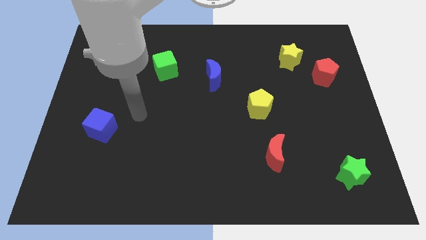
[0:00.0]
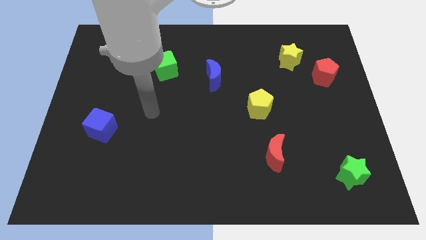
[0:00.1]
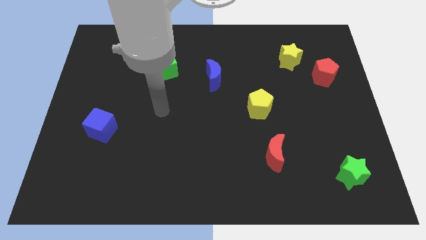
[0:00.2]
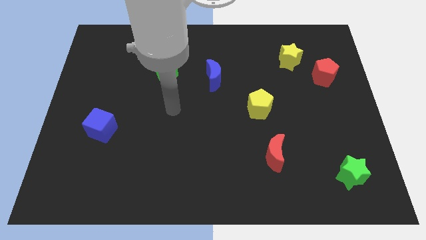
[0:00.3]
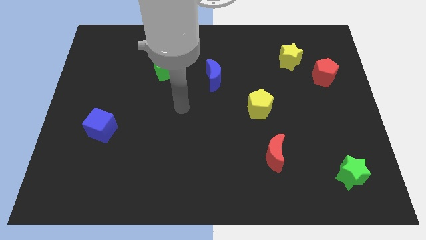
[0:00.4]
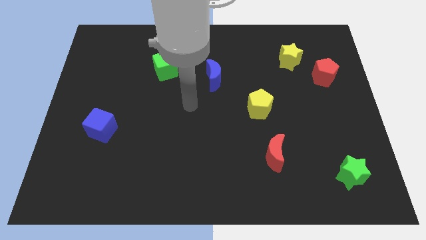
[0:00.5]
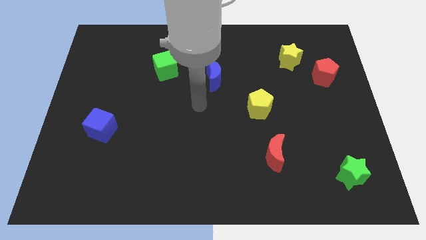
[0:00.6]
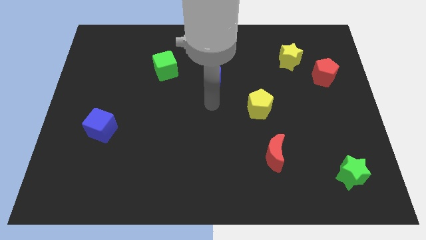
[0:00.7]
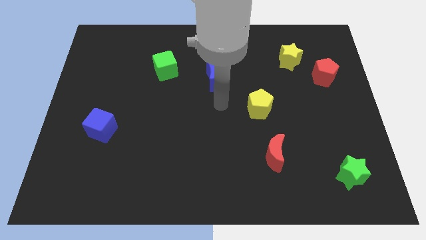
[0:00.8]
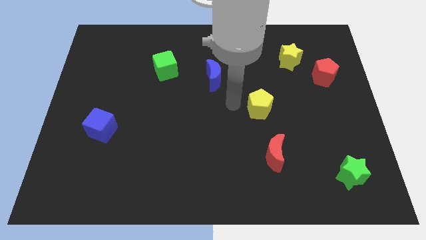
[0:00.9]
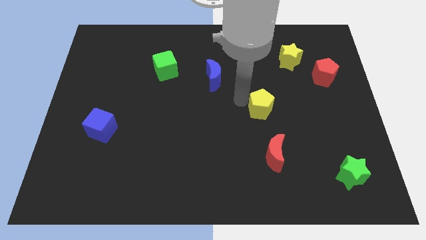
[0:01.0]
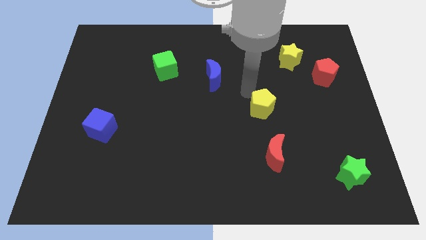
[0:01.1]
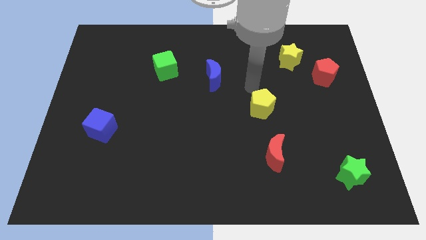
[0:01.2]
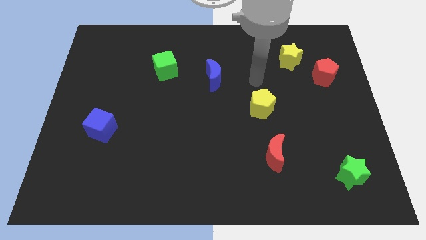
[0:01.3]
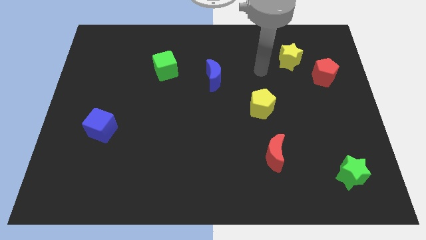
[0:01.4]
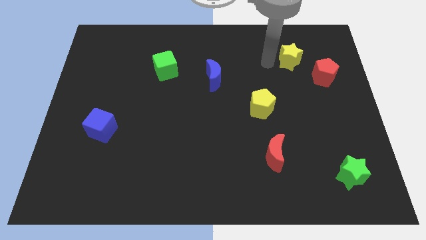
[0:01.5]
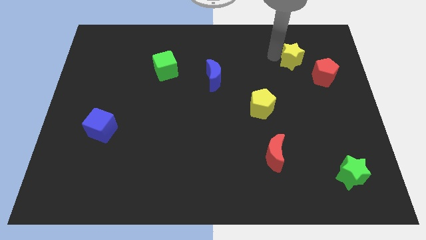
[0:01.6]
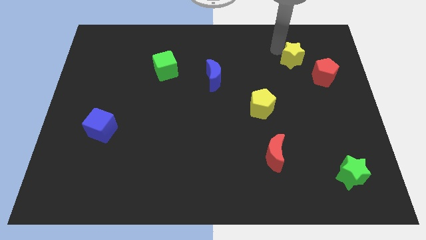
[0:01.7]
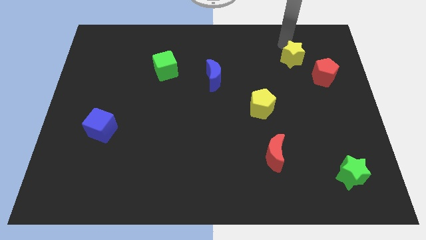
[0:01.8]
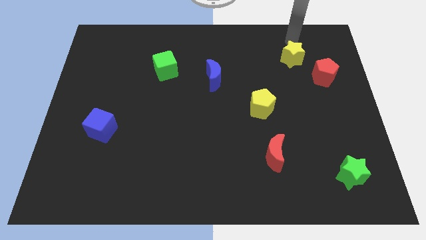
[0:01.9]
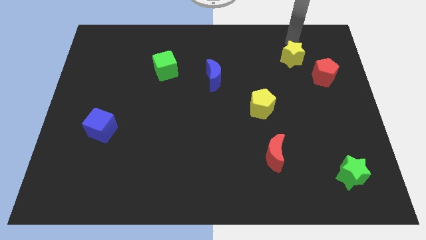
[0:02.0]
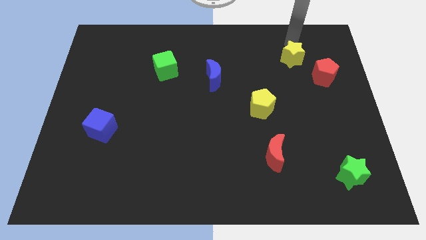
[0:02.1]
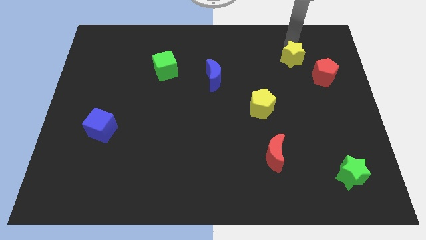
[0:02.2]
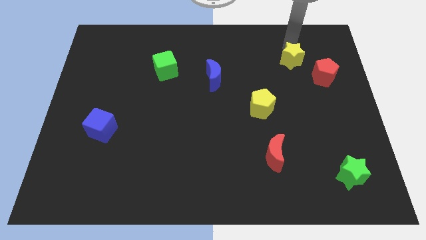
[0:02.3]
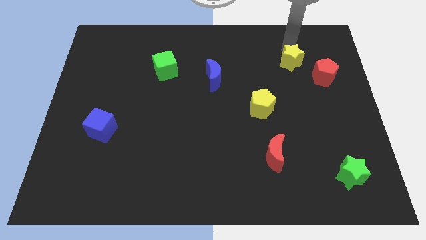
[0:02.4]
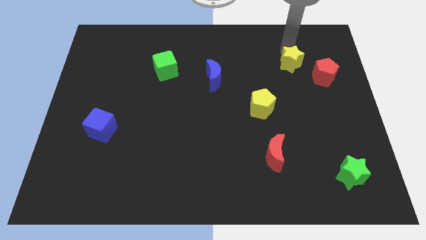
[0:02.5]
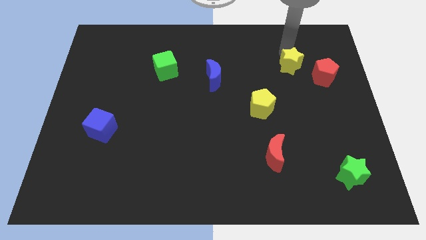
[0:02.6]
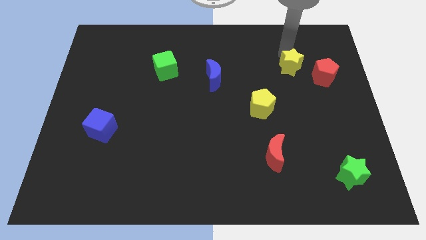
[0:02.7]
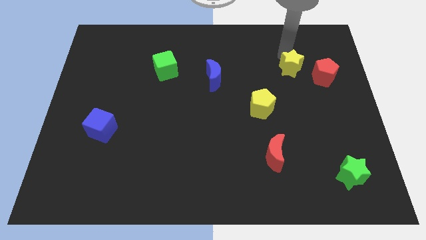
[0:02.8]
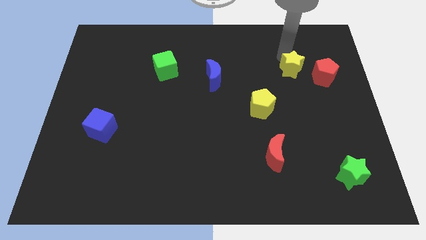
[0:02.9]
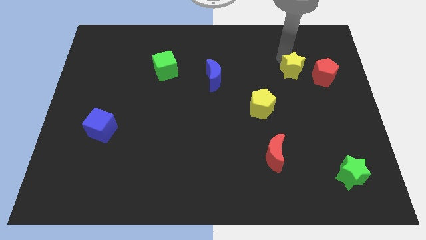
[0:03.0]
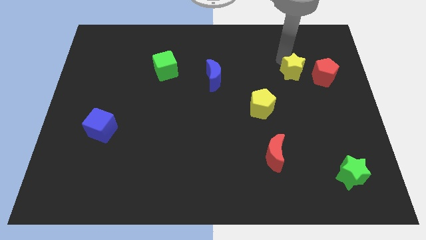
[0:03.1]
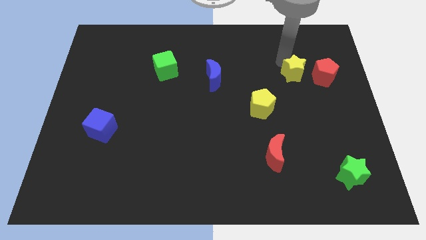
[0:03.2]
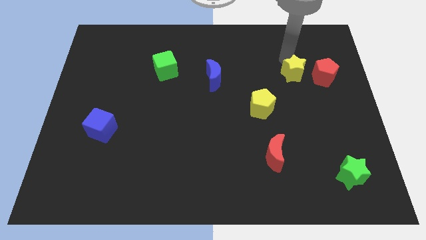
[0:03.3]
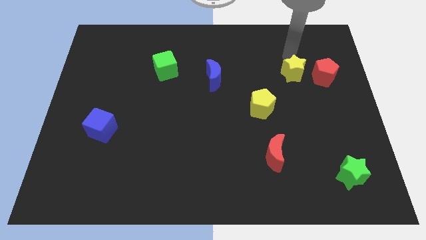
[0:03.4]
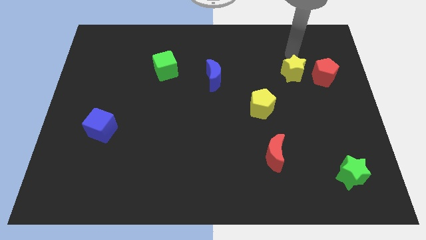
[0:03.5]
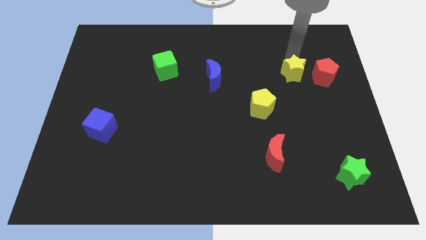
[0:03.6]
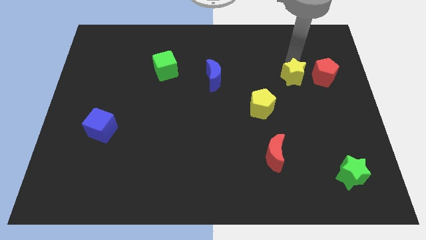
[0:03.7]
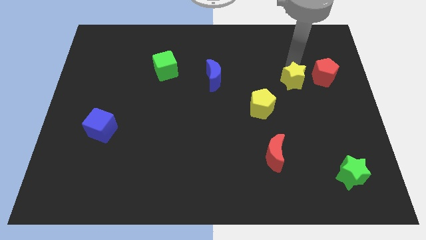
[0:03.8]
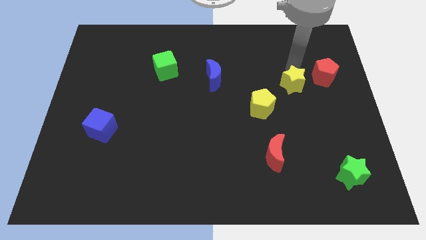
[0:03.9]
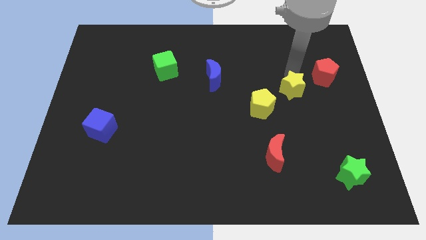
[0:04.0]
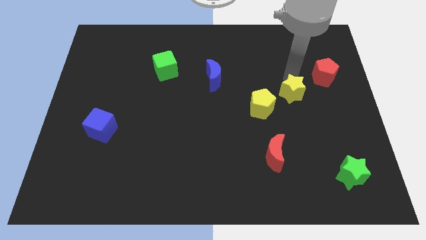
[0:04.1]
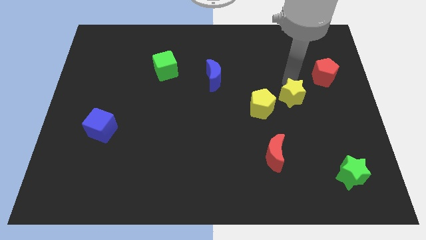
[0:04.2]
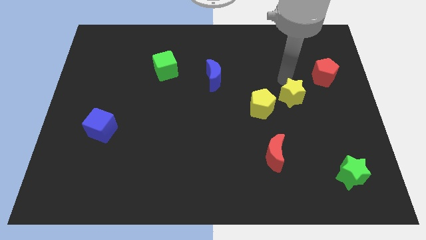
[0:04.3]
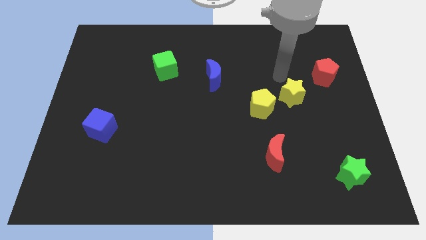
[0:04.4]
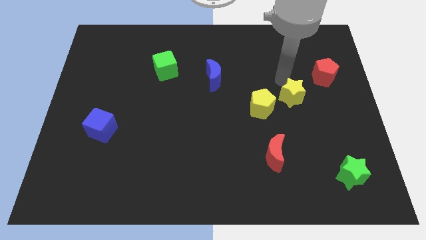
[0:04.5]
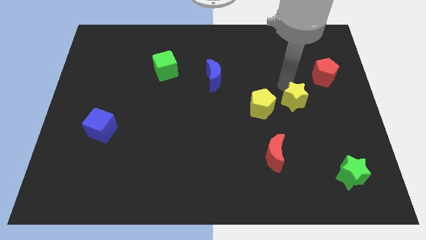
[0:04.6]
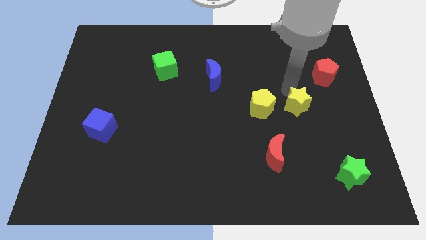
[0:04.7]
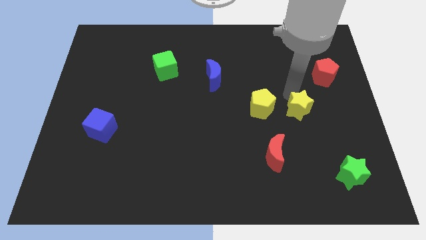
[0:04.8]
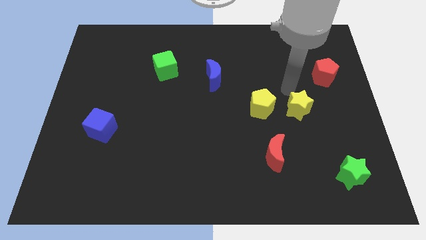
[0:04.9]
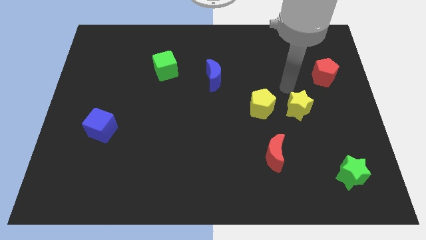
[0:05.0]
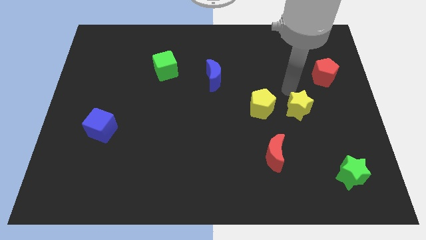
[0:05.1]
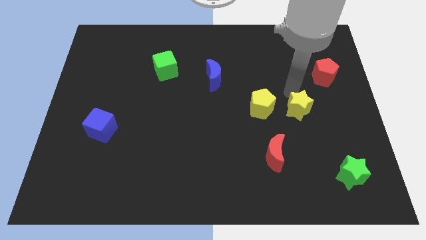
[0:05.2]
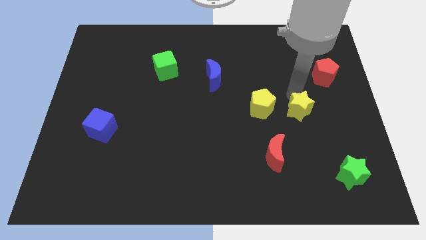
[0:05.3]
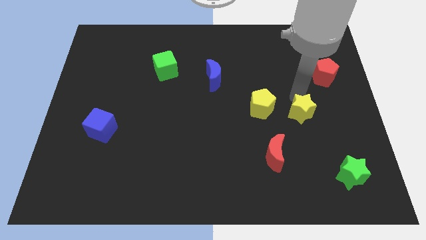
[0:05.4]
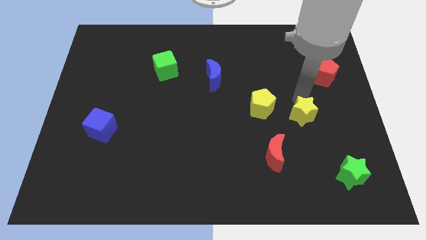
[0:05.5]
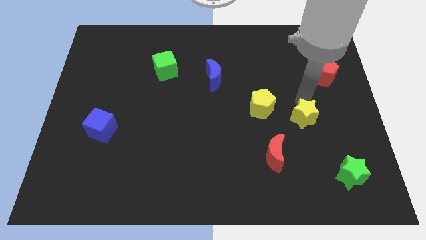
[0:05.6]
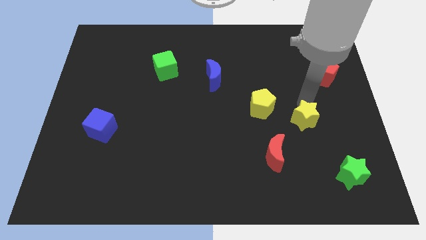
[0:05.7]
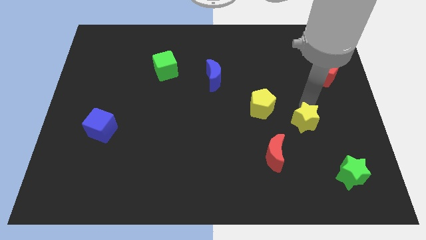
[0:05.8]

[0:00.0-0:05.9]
slide the yellow star down

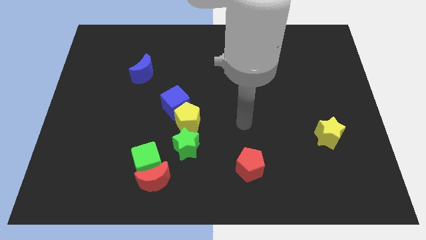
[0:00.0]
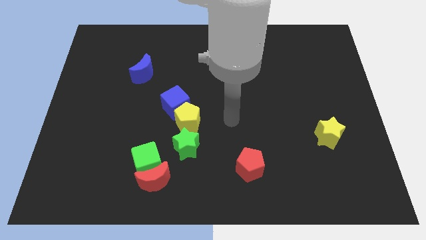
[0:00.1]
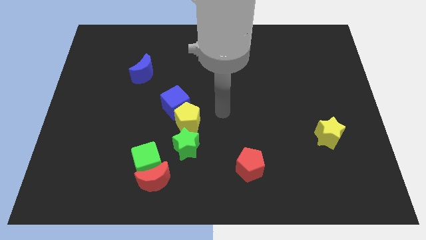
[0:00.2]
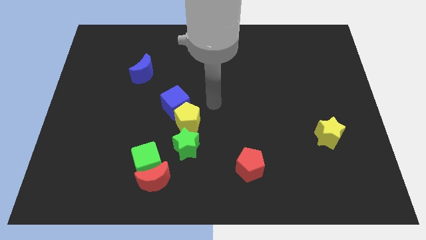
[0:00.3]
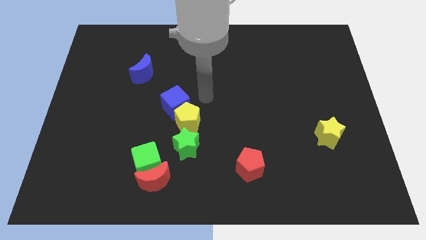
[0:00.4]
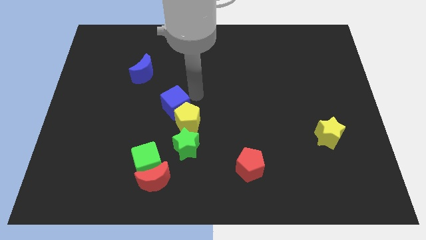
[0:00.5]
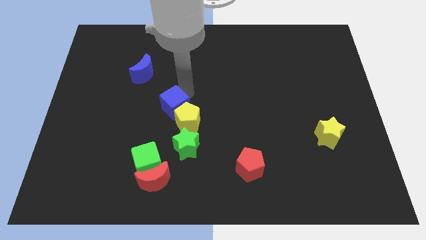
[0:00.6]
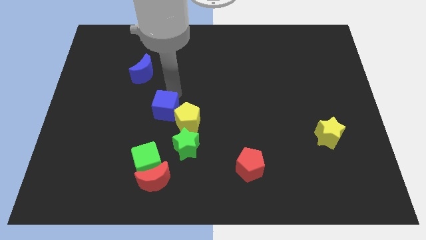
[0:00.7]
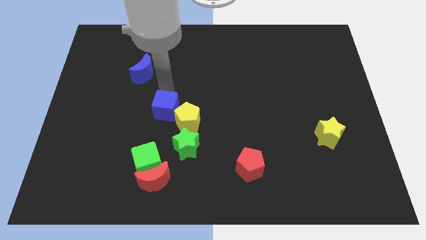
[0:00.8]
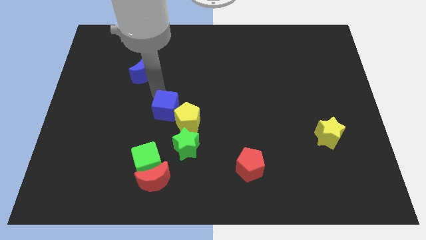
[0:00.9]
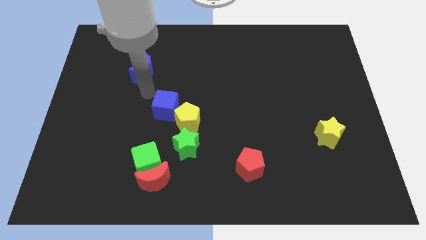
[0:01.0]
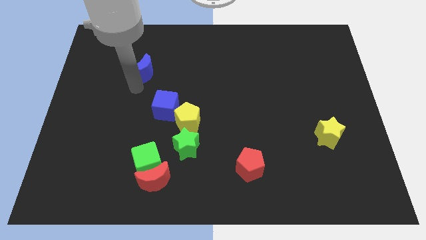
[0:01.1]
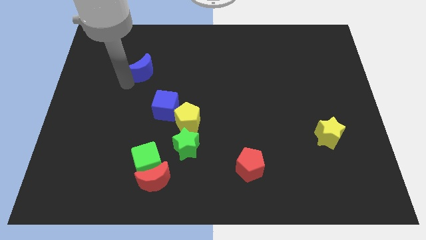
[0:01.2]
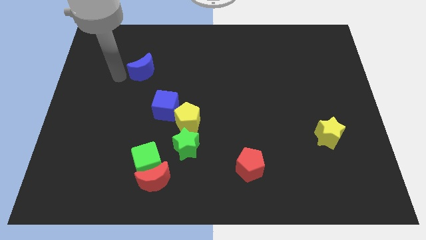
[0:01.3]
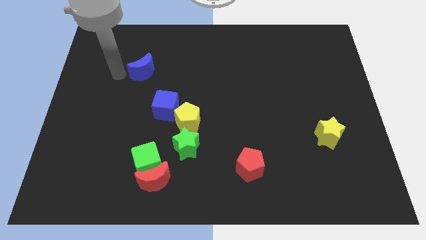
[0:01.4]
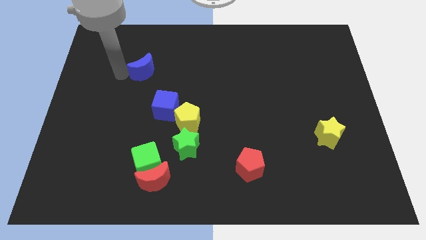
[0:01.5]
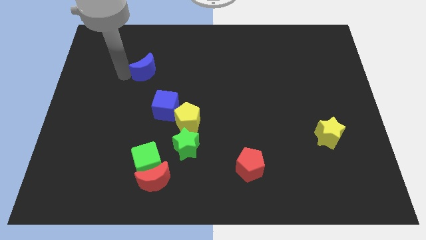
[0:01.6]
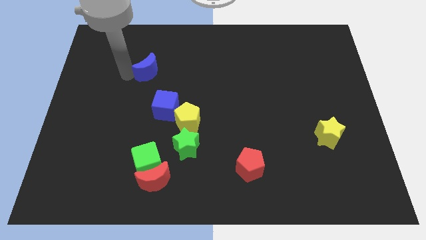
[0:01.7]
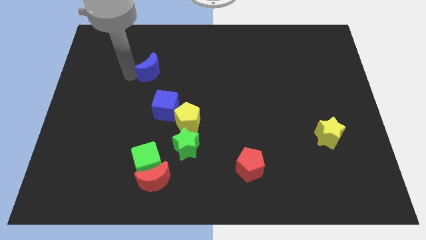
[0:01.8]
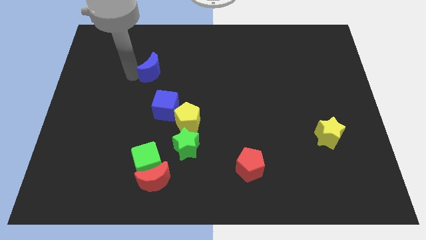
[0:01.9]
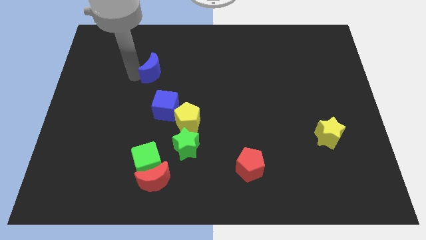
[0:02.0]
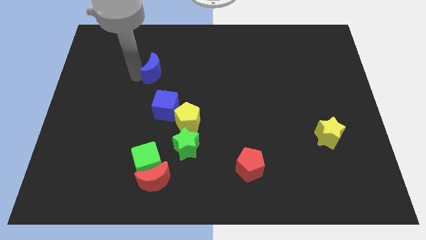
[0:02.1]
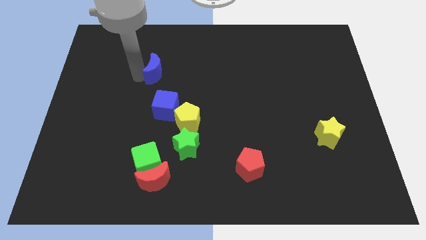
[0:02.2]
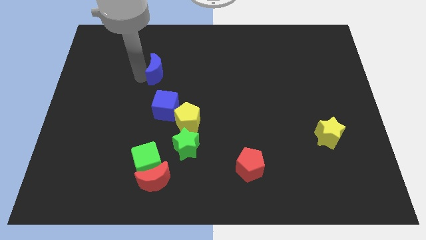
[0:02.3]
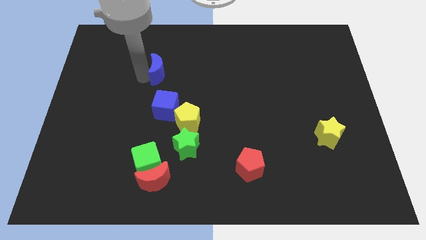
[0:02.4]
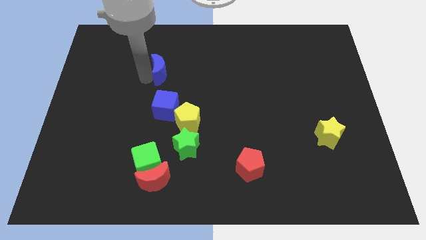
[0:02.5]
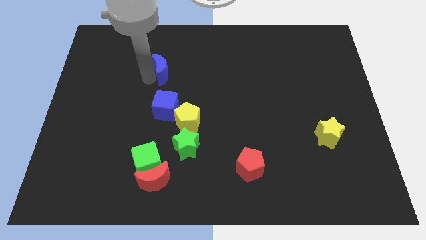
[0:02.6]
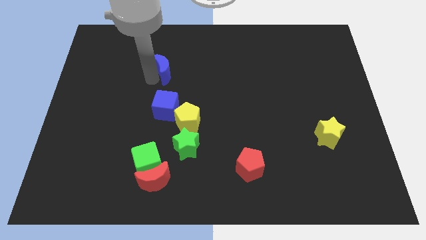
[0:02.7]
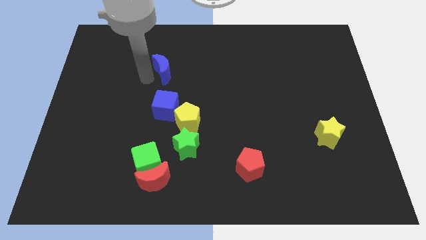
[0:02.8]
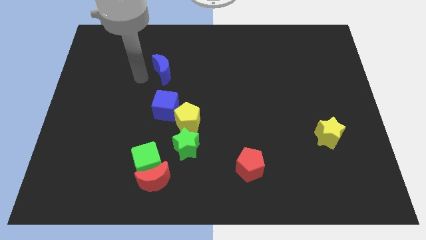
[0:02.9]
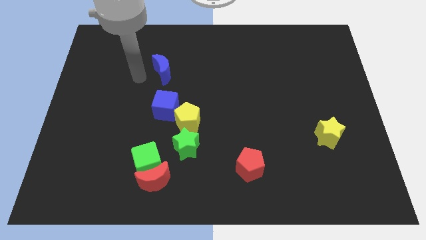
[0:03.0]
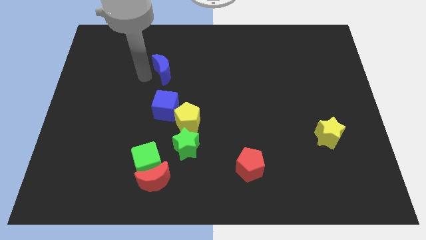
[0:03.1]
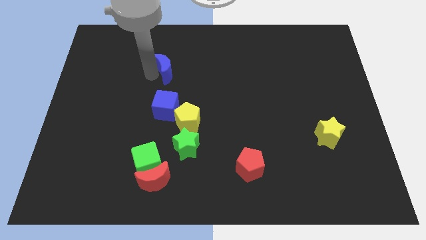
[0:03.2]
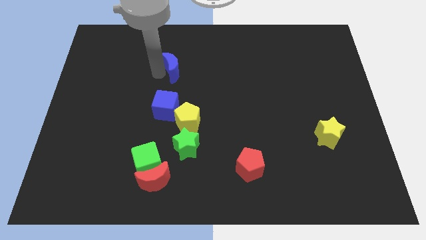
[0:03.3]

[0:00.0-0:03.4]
slide the blue moon right a bit
